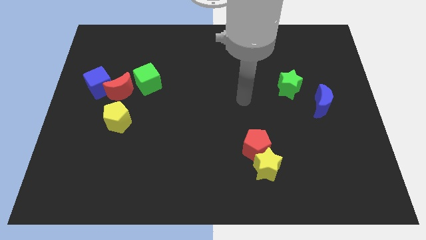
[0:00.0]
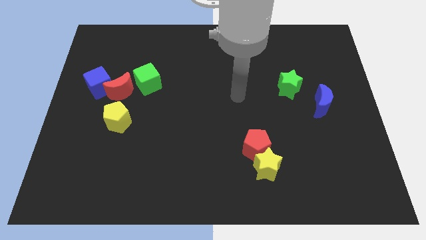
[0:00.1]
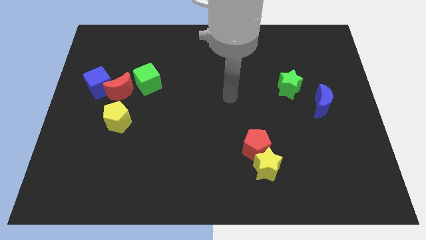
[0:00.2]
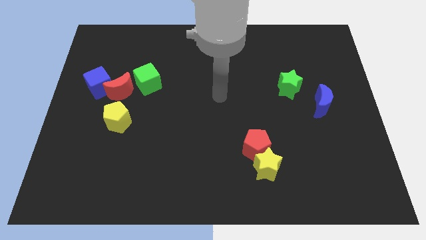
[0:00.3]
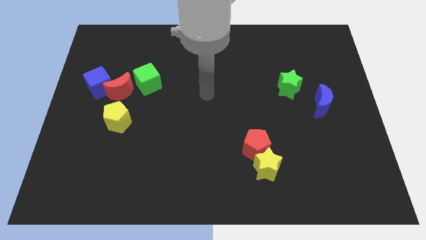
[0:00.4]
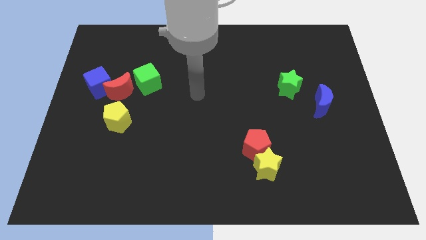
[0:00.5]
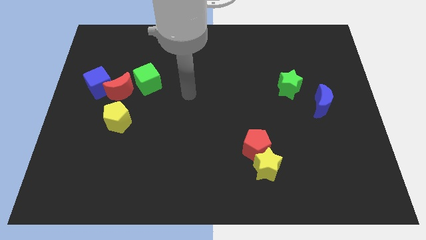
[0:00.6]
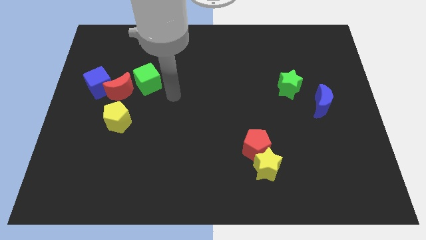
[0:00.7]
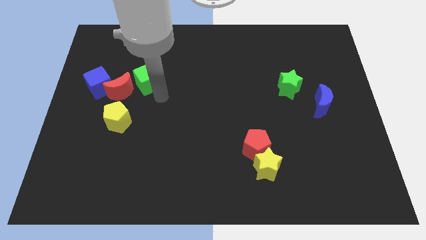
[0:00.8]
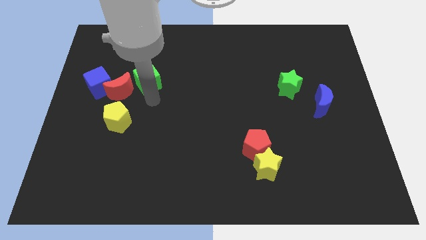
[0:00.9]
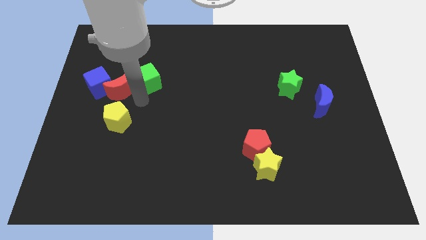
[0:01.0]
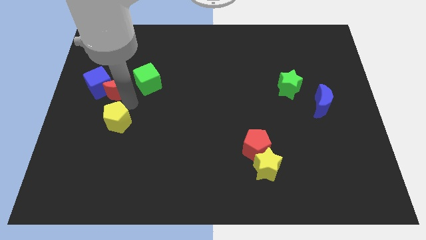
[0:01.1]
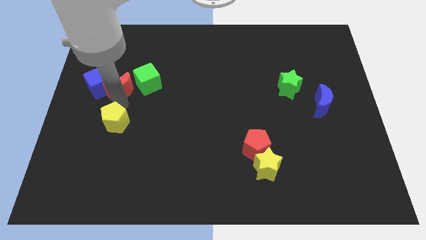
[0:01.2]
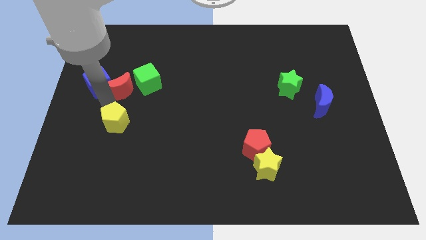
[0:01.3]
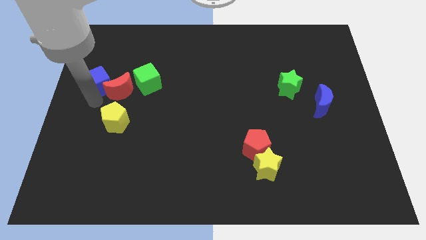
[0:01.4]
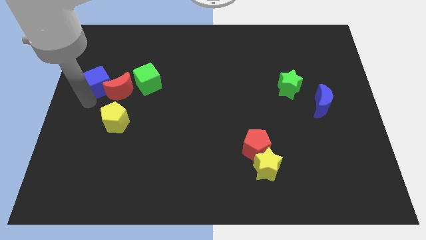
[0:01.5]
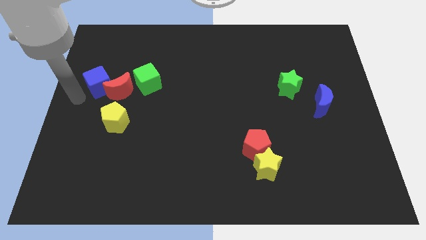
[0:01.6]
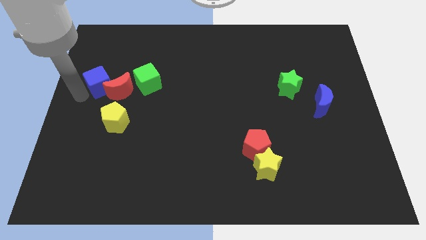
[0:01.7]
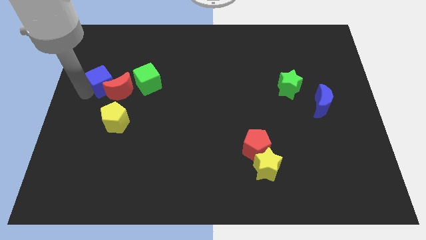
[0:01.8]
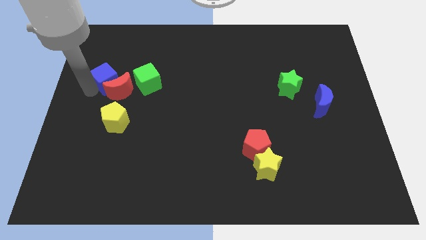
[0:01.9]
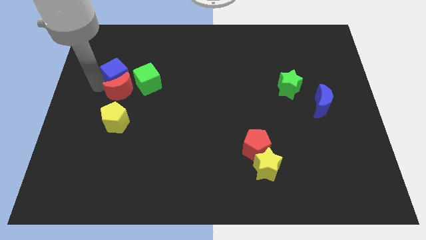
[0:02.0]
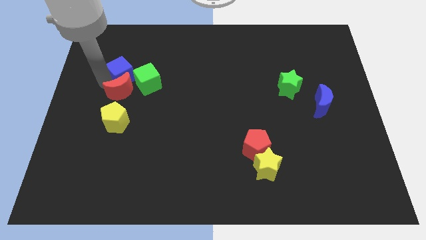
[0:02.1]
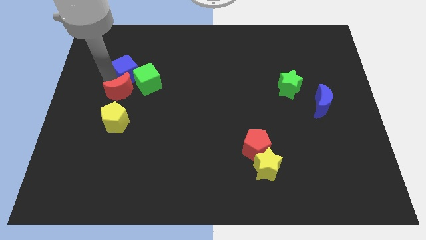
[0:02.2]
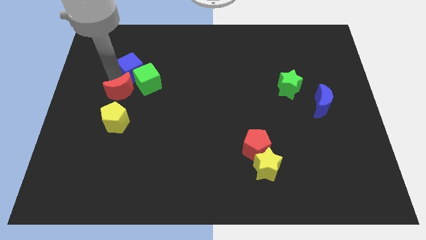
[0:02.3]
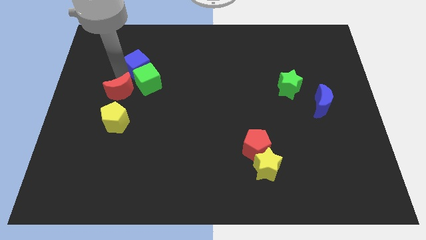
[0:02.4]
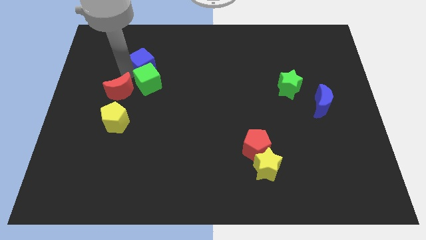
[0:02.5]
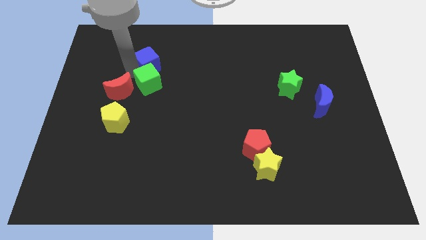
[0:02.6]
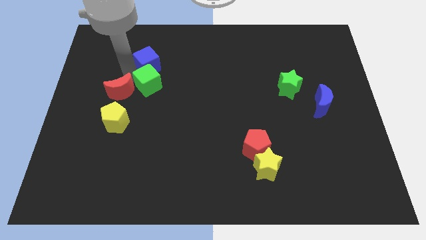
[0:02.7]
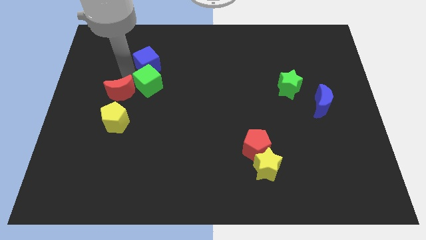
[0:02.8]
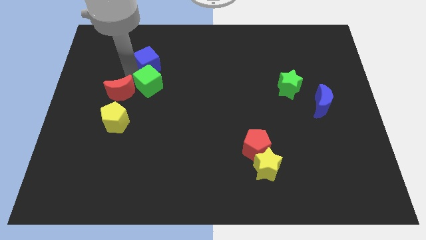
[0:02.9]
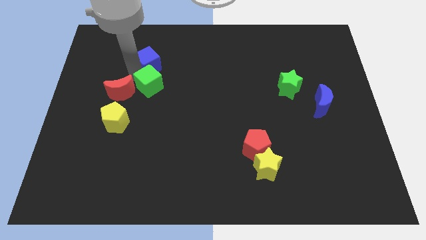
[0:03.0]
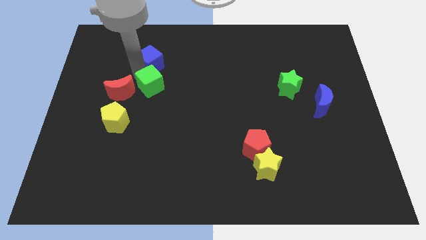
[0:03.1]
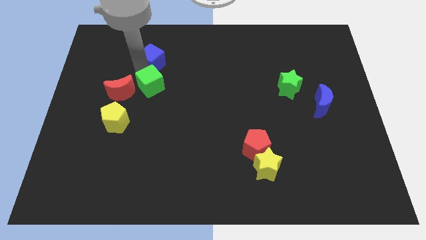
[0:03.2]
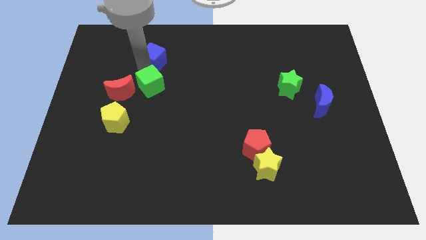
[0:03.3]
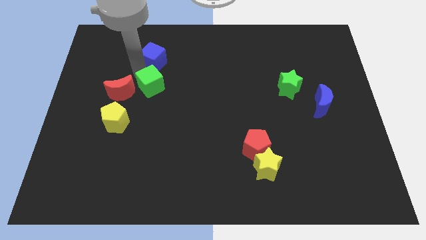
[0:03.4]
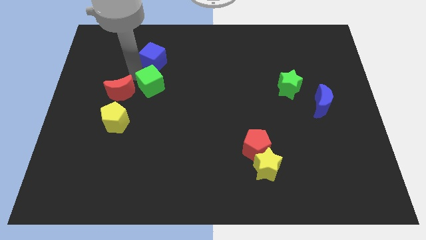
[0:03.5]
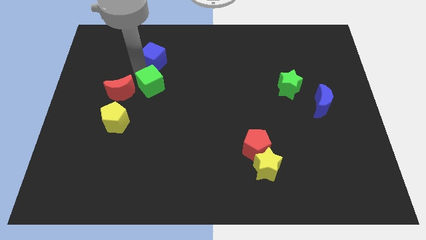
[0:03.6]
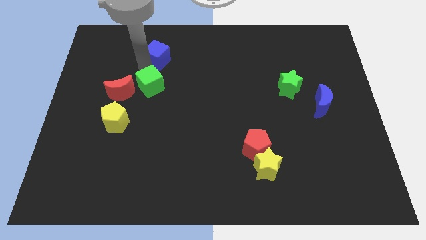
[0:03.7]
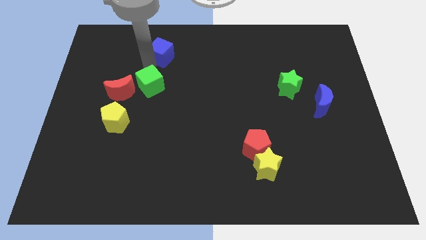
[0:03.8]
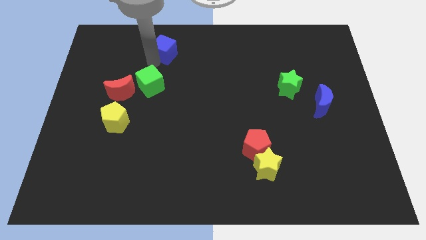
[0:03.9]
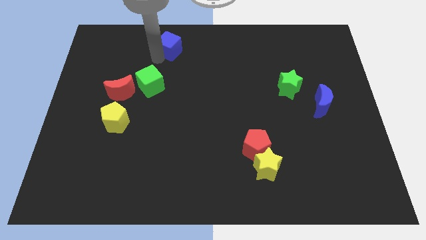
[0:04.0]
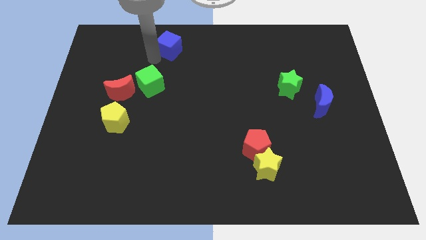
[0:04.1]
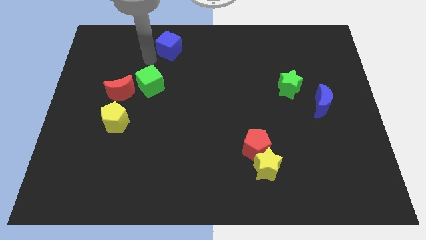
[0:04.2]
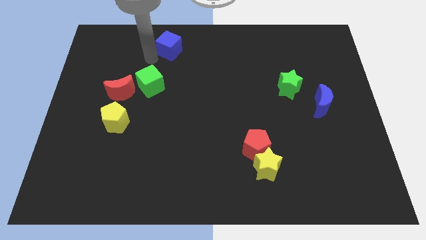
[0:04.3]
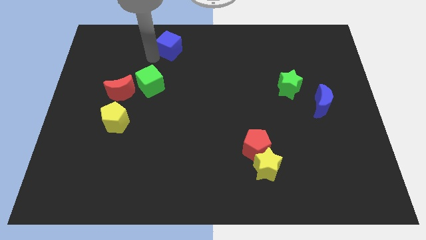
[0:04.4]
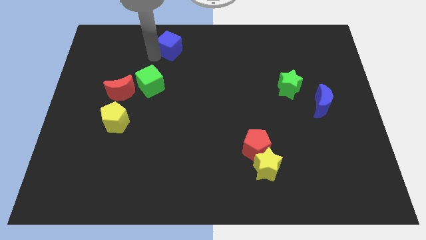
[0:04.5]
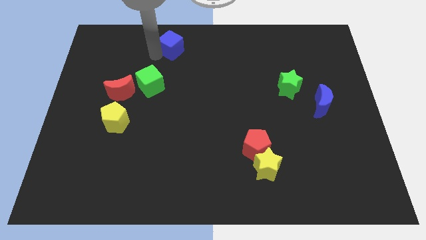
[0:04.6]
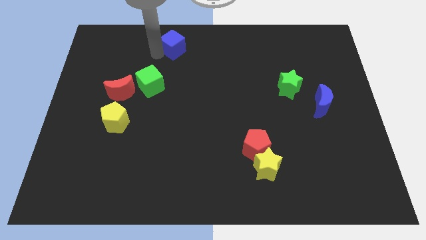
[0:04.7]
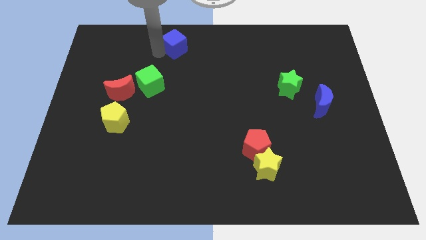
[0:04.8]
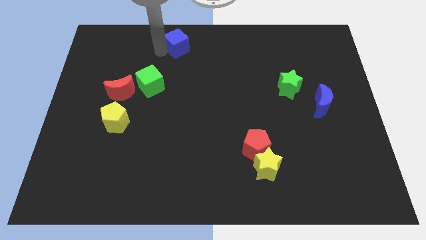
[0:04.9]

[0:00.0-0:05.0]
put the blue cube to the top

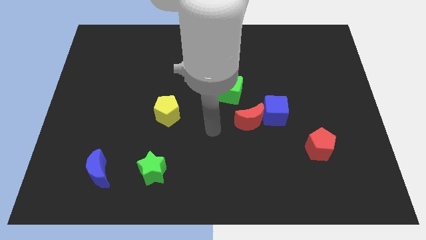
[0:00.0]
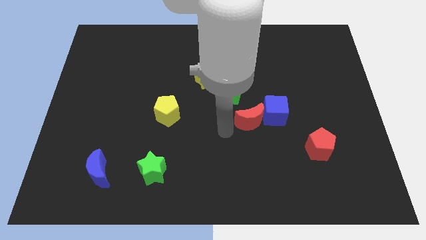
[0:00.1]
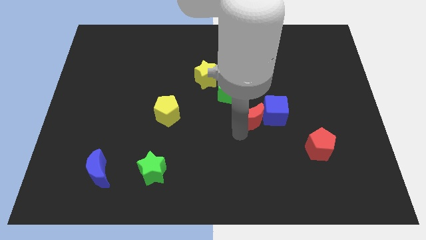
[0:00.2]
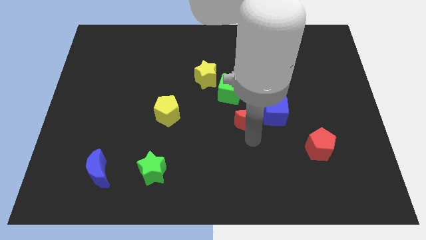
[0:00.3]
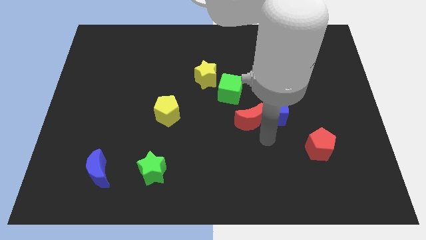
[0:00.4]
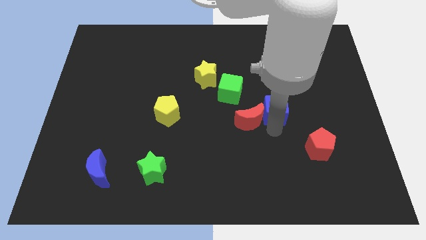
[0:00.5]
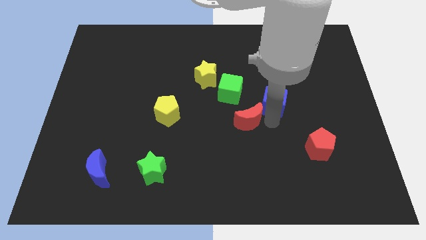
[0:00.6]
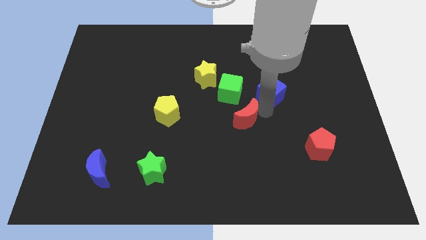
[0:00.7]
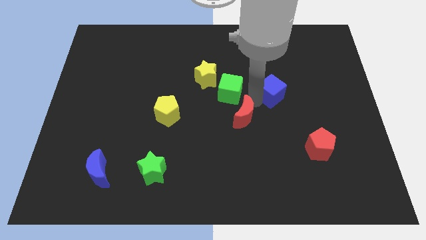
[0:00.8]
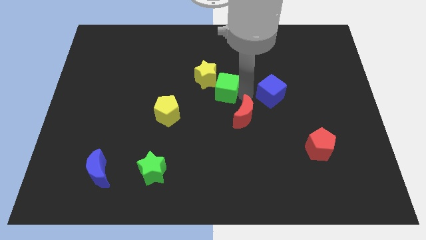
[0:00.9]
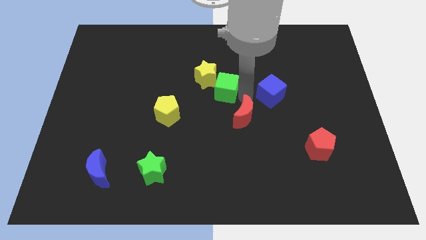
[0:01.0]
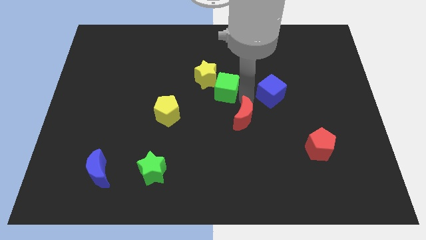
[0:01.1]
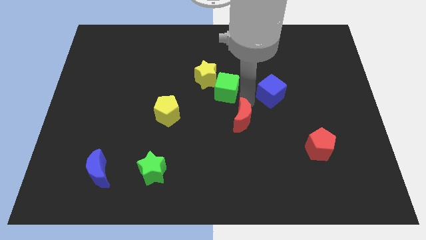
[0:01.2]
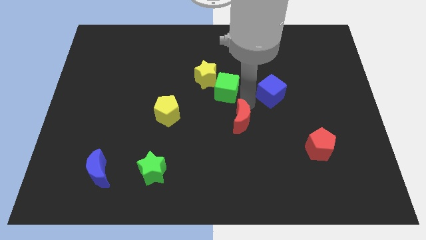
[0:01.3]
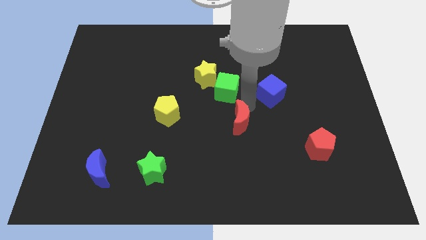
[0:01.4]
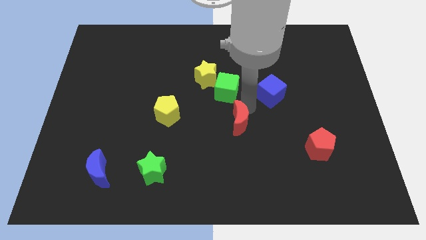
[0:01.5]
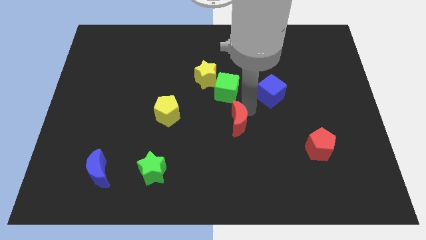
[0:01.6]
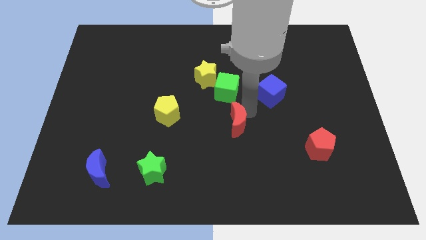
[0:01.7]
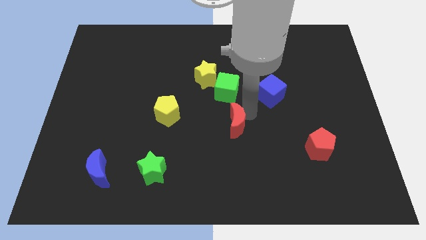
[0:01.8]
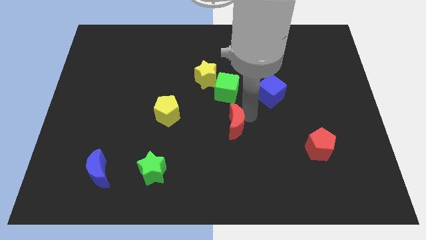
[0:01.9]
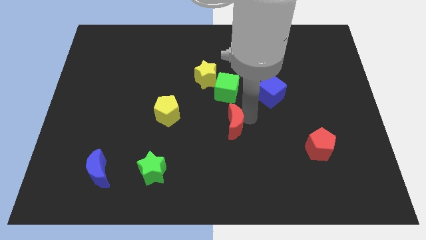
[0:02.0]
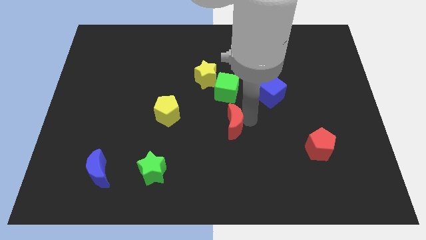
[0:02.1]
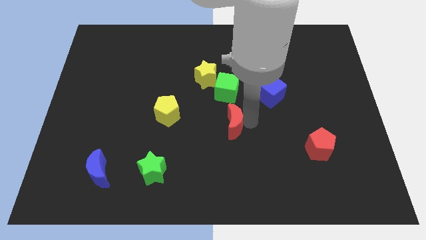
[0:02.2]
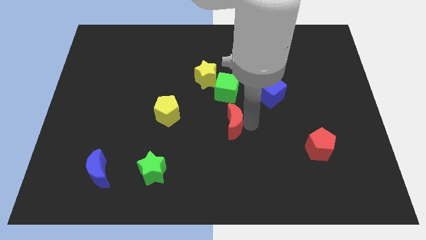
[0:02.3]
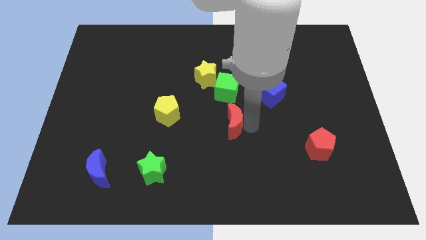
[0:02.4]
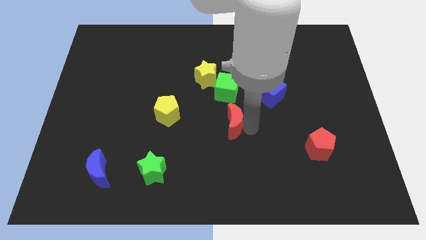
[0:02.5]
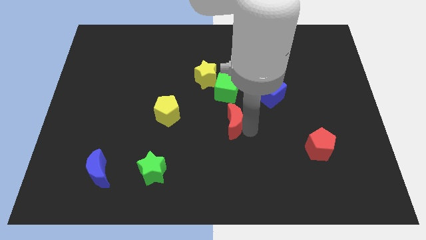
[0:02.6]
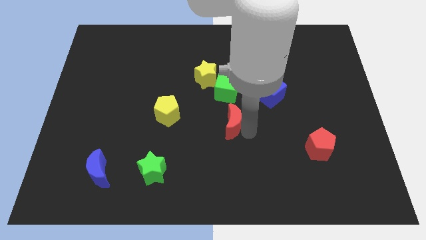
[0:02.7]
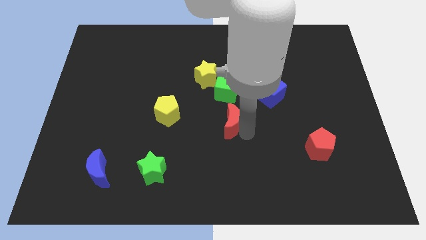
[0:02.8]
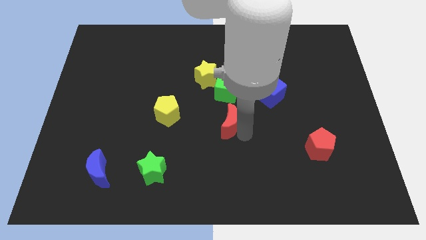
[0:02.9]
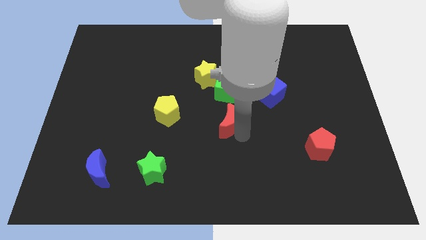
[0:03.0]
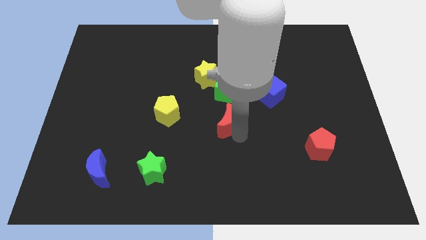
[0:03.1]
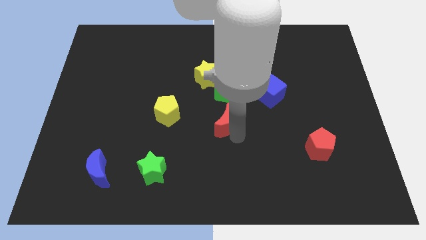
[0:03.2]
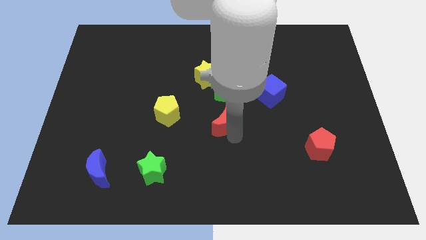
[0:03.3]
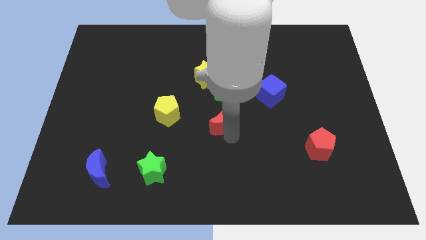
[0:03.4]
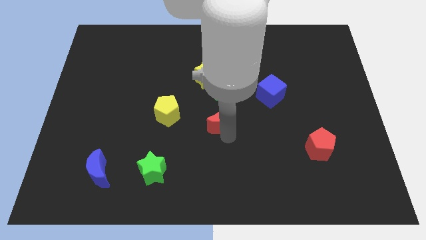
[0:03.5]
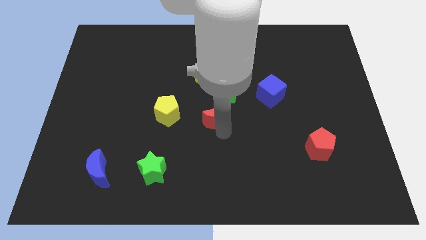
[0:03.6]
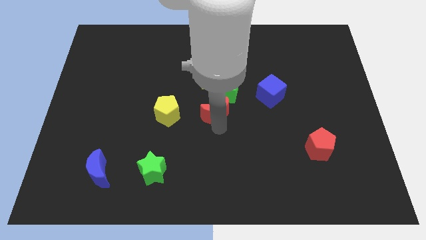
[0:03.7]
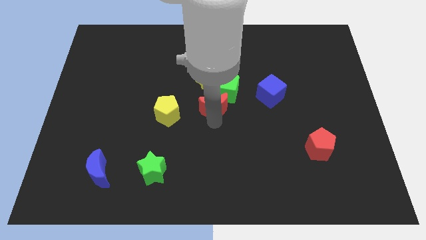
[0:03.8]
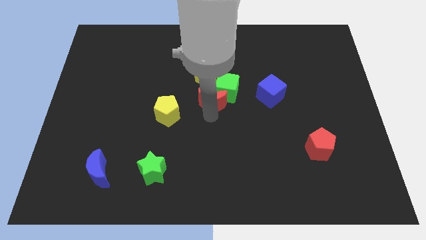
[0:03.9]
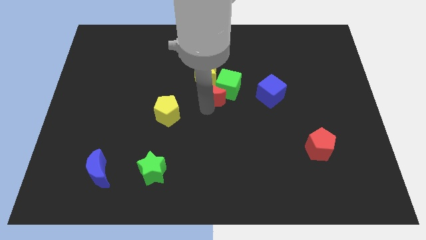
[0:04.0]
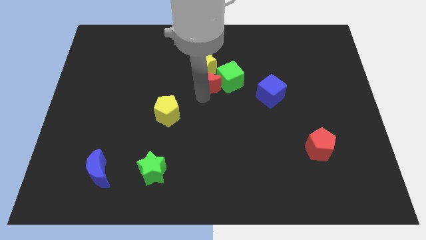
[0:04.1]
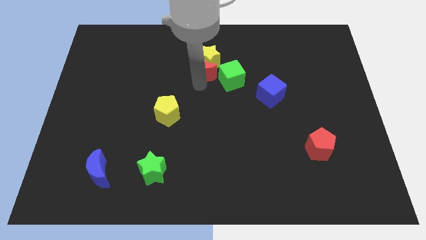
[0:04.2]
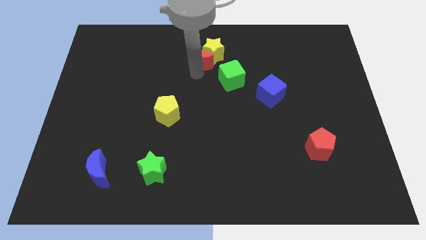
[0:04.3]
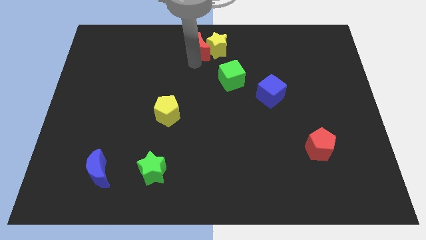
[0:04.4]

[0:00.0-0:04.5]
move the red moon to the top side
